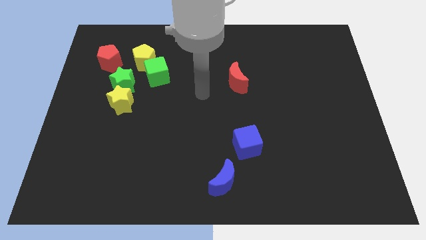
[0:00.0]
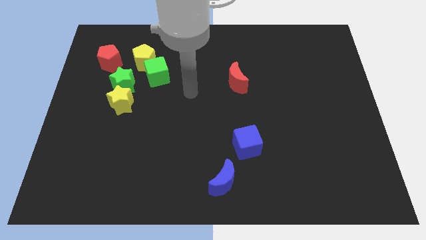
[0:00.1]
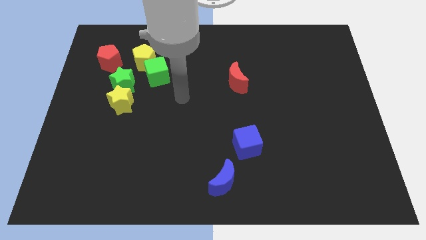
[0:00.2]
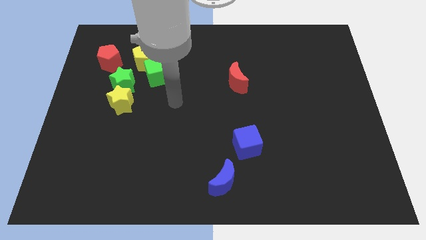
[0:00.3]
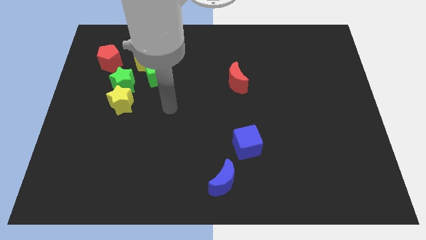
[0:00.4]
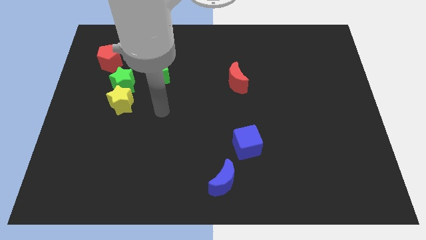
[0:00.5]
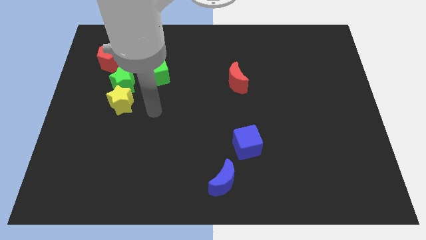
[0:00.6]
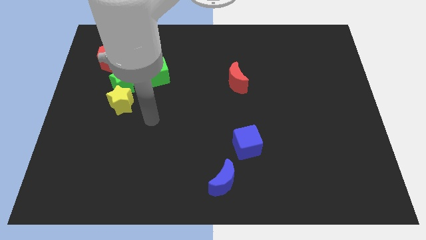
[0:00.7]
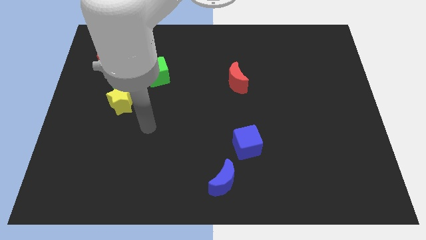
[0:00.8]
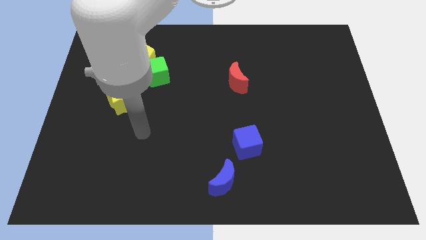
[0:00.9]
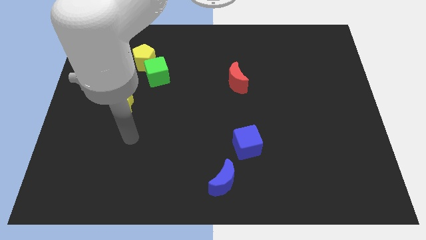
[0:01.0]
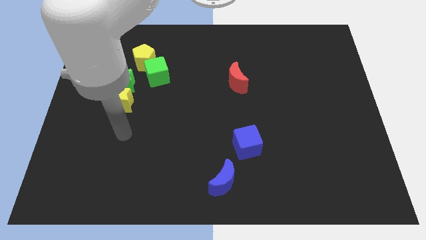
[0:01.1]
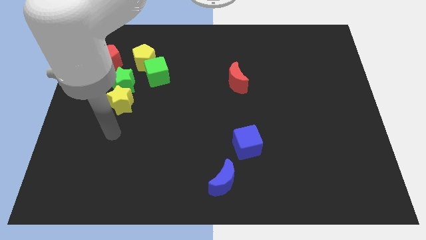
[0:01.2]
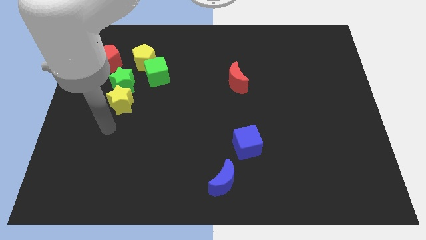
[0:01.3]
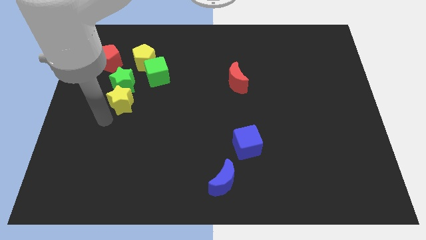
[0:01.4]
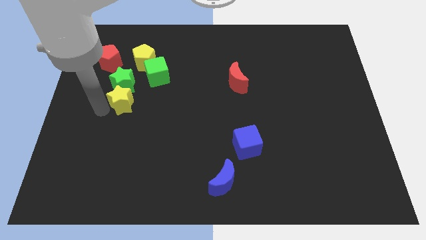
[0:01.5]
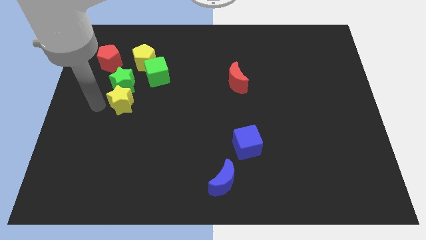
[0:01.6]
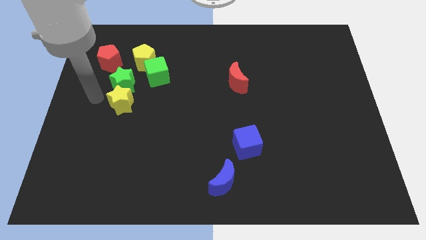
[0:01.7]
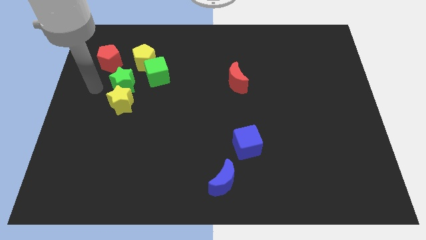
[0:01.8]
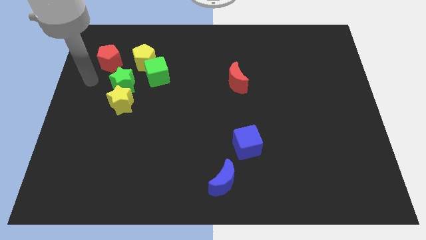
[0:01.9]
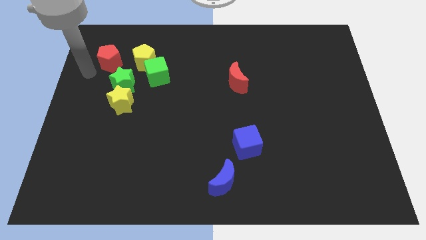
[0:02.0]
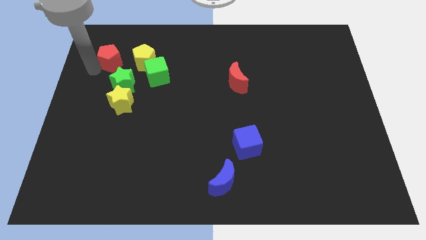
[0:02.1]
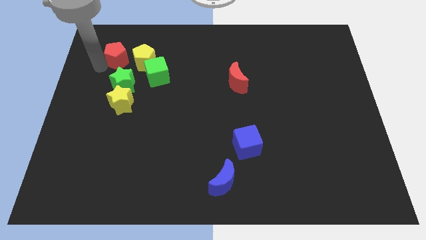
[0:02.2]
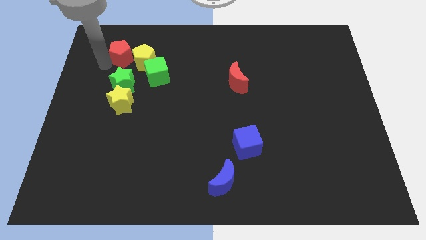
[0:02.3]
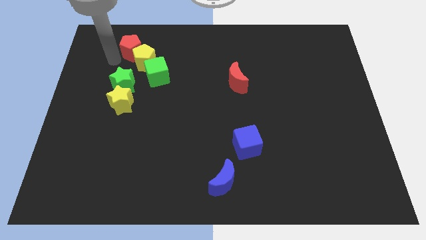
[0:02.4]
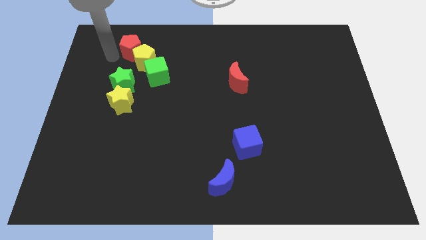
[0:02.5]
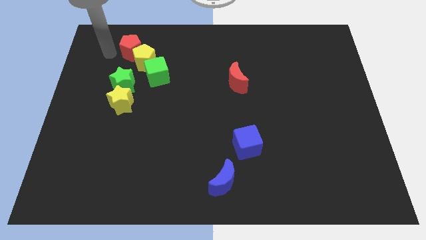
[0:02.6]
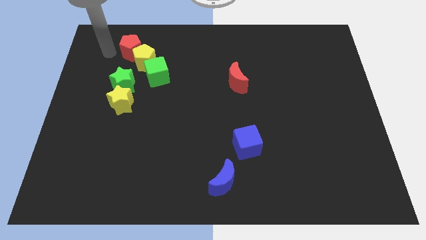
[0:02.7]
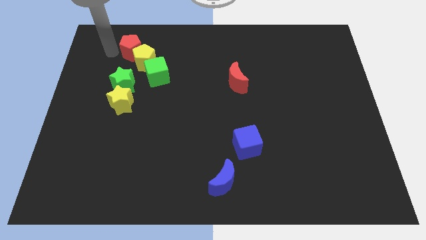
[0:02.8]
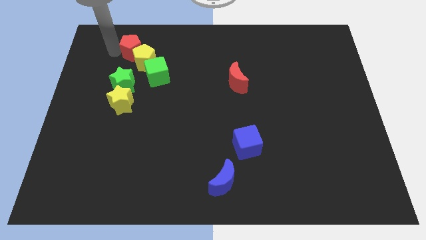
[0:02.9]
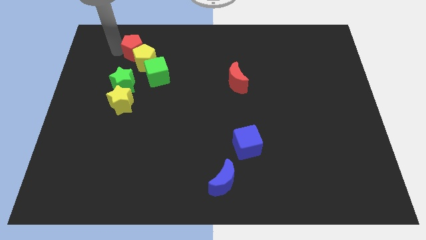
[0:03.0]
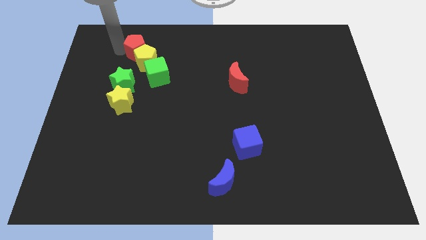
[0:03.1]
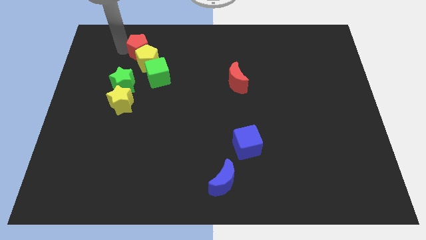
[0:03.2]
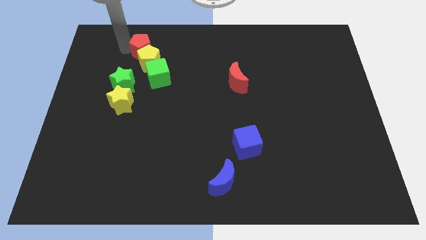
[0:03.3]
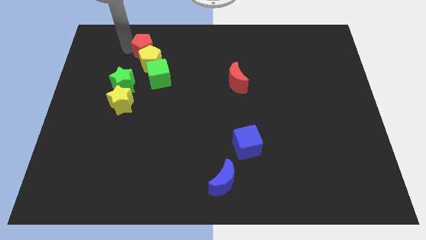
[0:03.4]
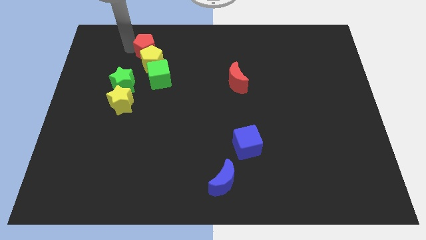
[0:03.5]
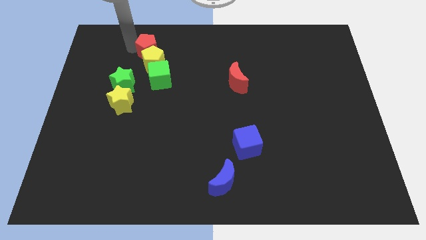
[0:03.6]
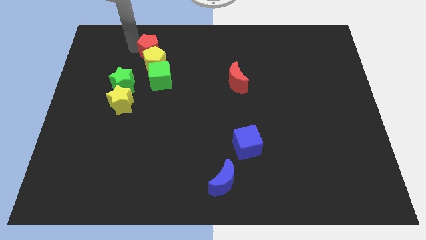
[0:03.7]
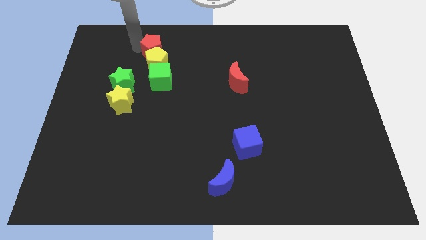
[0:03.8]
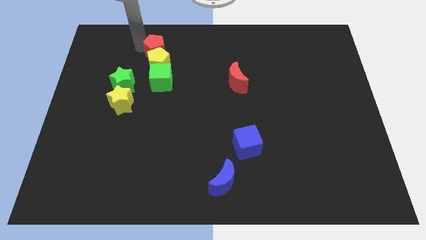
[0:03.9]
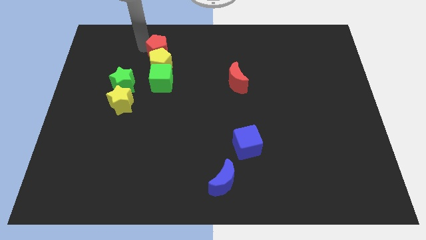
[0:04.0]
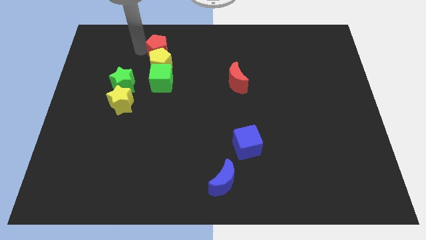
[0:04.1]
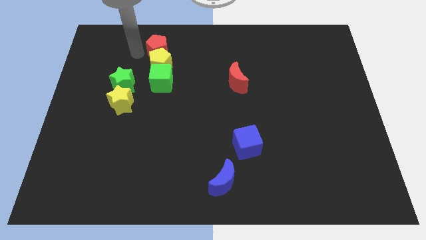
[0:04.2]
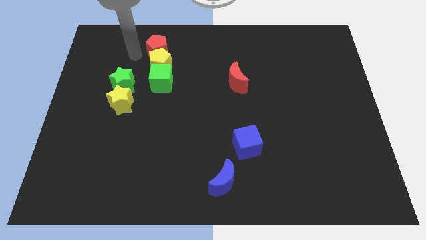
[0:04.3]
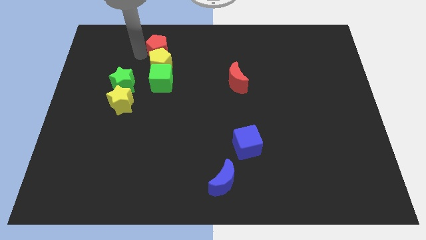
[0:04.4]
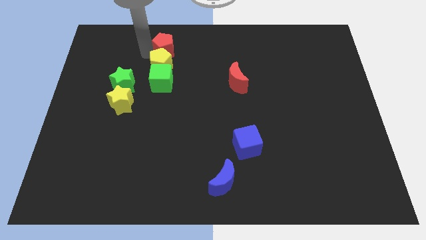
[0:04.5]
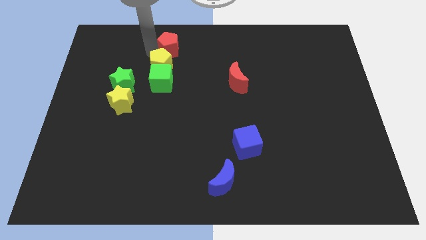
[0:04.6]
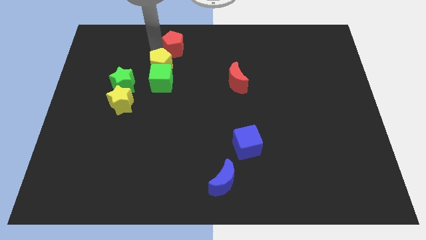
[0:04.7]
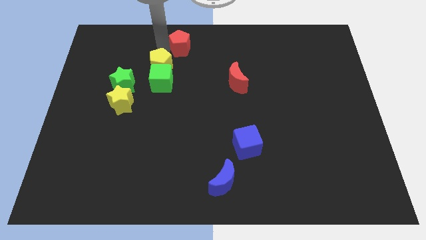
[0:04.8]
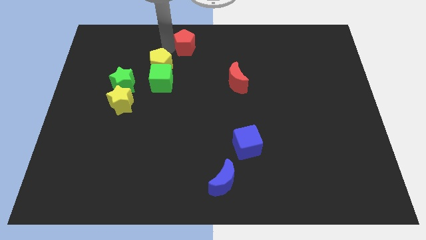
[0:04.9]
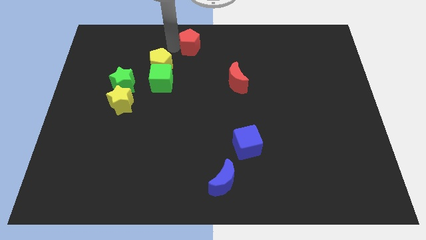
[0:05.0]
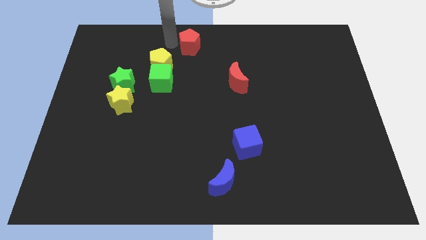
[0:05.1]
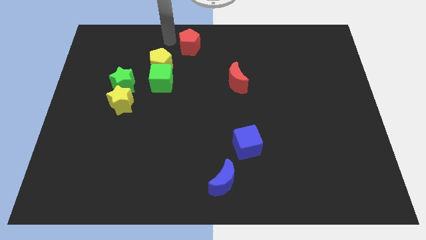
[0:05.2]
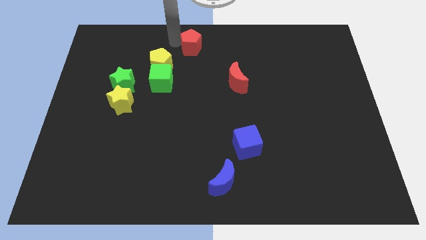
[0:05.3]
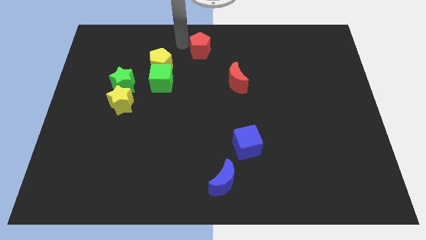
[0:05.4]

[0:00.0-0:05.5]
move the red pentagon right

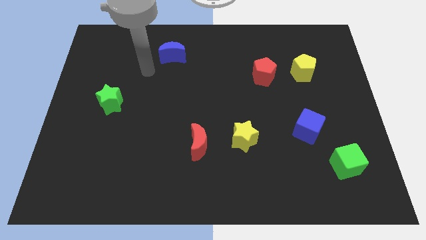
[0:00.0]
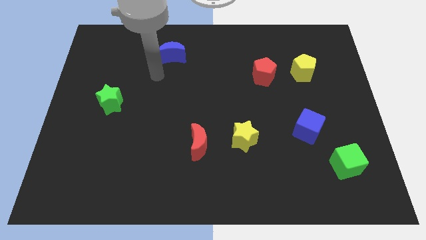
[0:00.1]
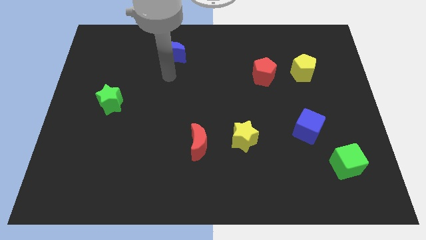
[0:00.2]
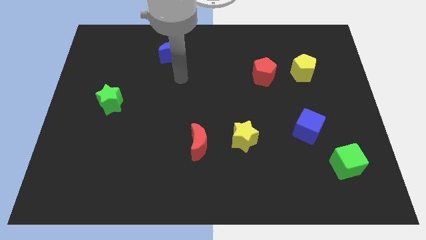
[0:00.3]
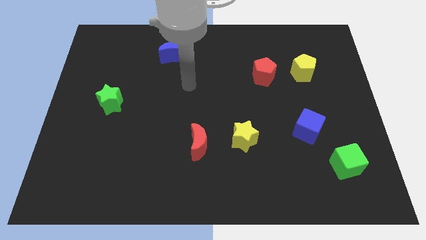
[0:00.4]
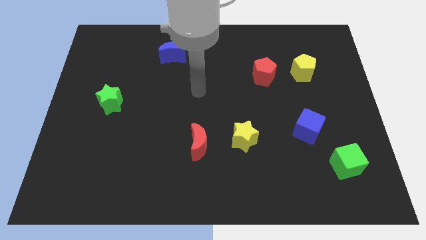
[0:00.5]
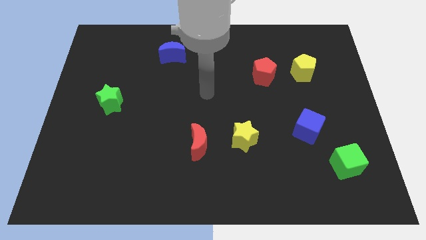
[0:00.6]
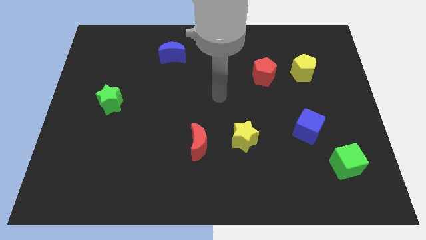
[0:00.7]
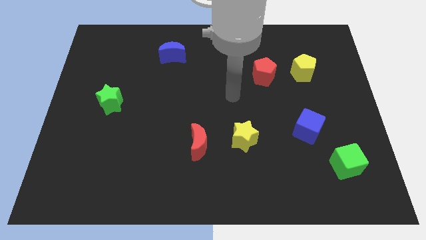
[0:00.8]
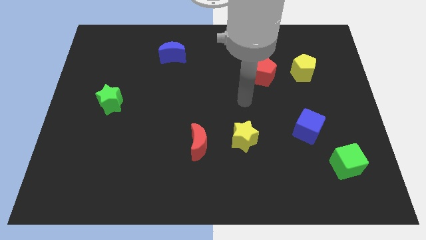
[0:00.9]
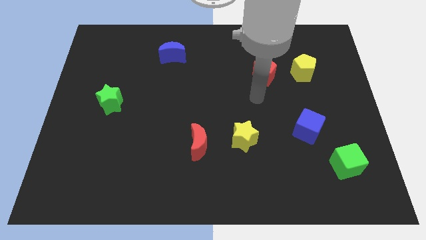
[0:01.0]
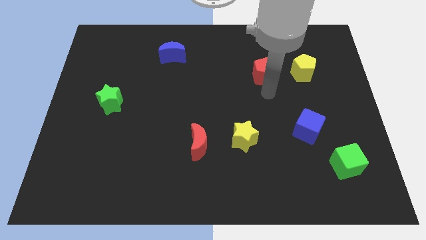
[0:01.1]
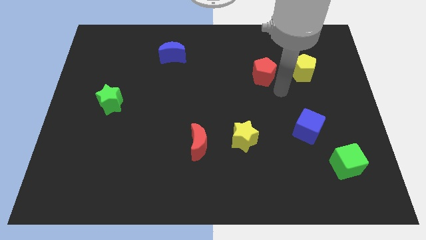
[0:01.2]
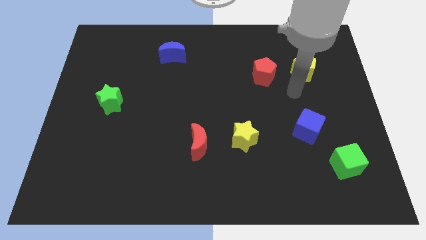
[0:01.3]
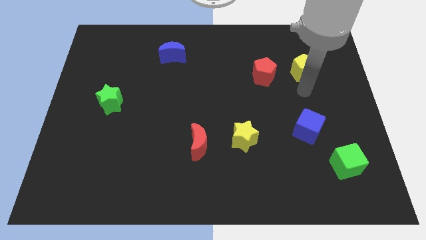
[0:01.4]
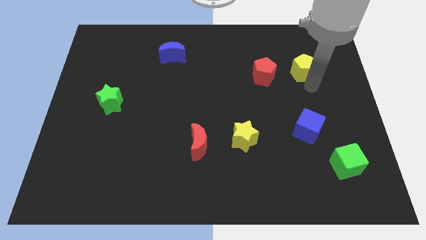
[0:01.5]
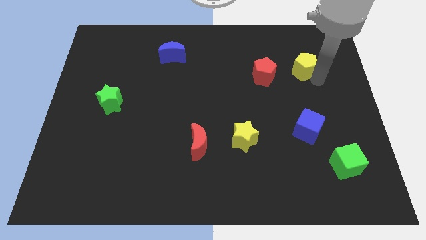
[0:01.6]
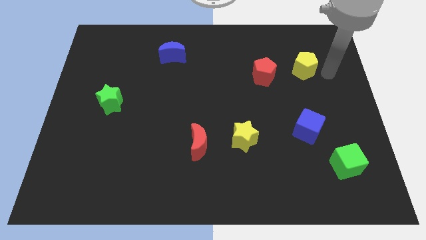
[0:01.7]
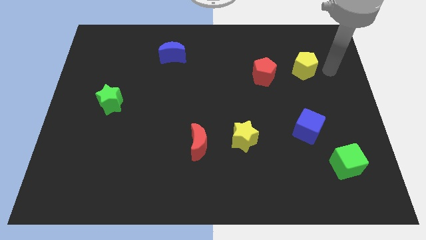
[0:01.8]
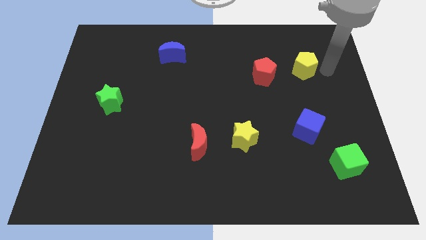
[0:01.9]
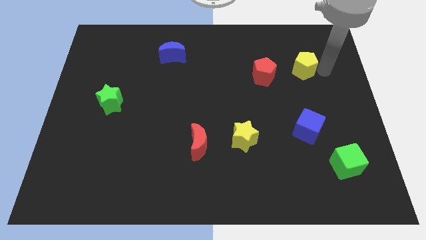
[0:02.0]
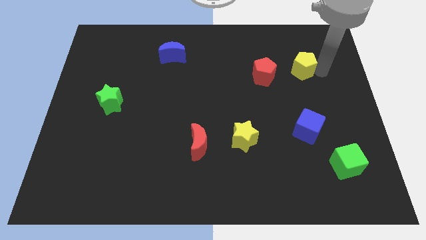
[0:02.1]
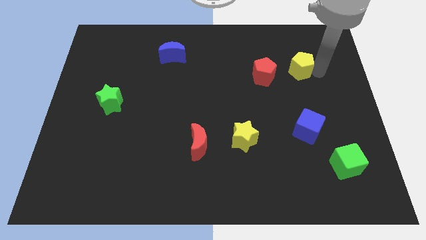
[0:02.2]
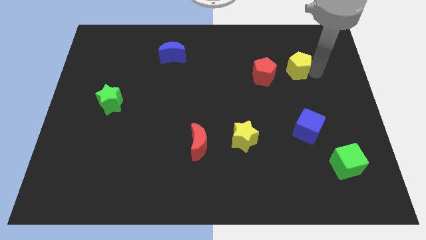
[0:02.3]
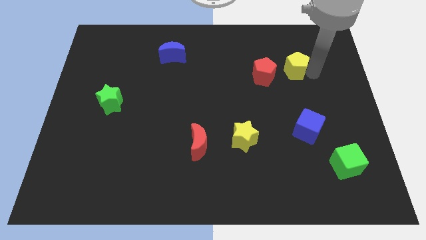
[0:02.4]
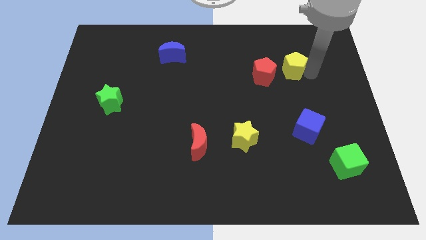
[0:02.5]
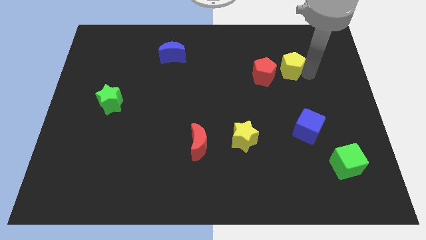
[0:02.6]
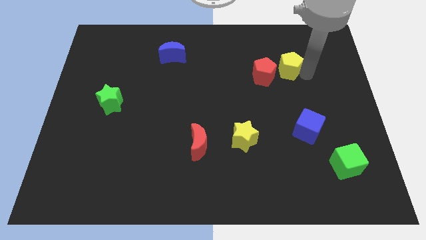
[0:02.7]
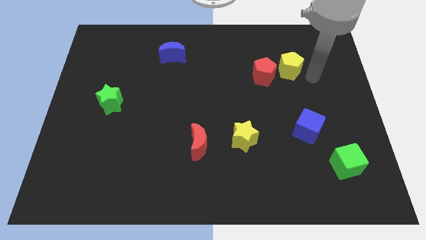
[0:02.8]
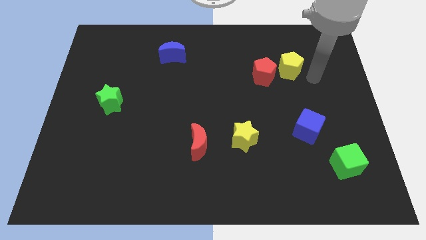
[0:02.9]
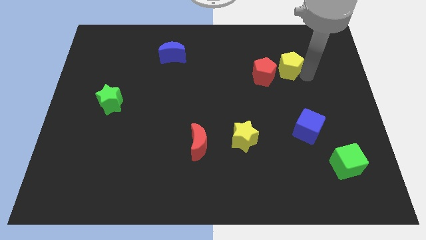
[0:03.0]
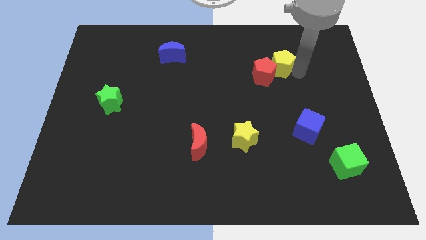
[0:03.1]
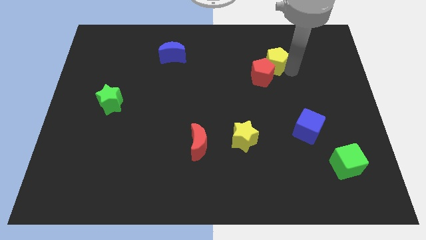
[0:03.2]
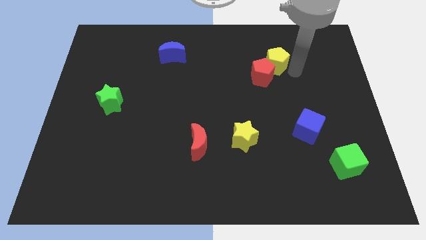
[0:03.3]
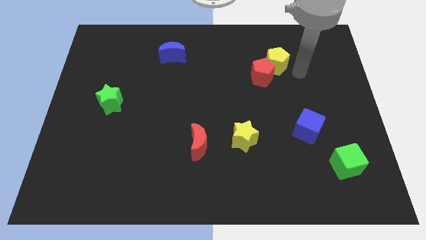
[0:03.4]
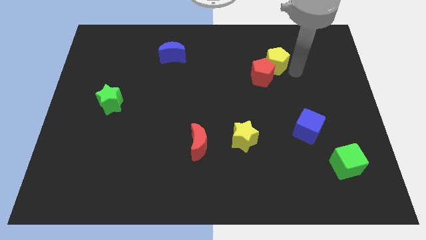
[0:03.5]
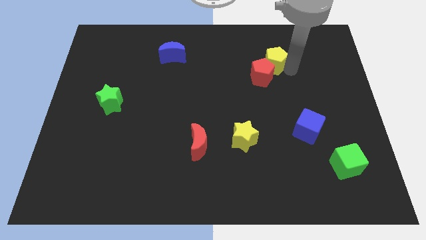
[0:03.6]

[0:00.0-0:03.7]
move the yellow pentagon left a bit
